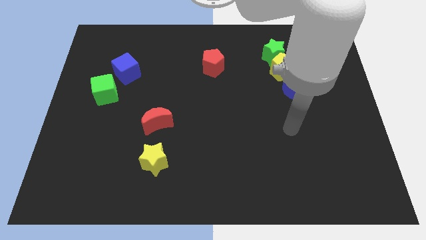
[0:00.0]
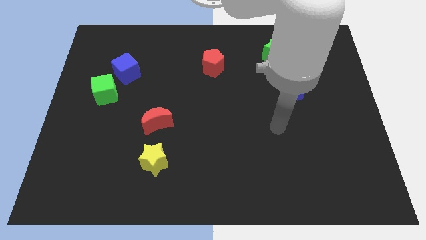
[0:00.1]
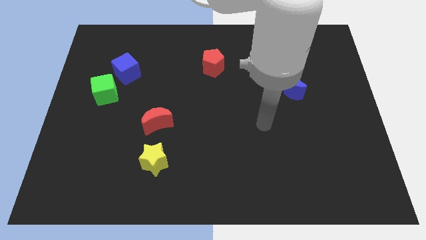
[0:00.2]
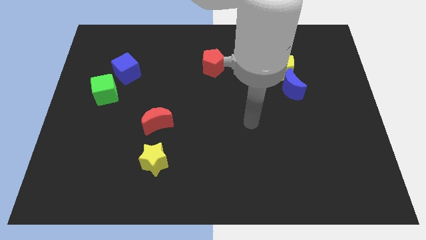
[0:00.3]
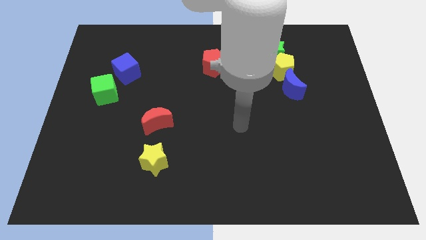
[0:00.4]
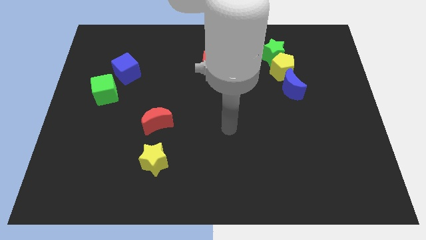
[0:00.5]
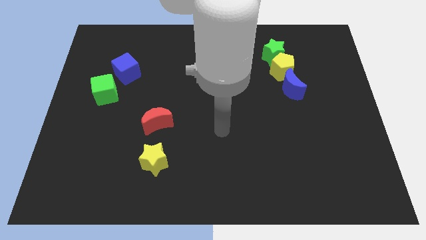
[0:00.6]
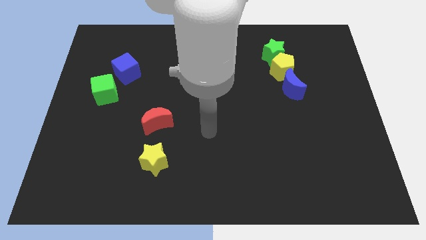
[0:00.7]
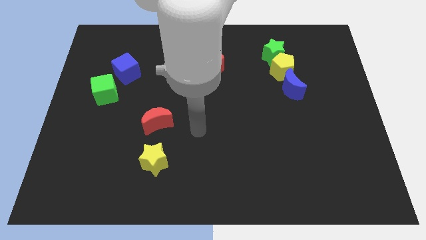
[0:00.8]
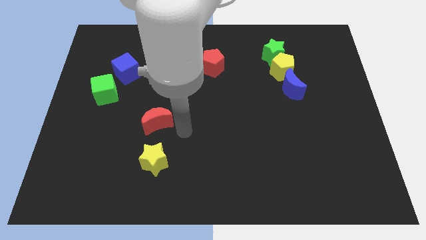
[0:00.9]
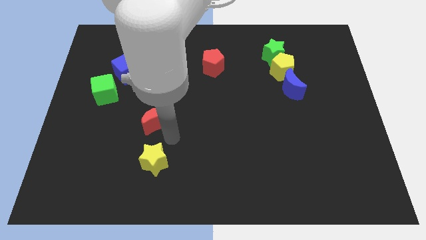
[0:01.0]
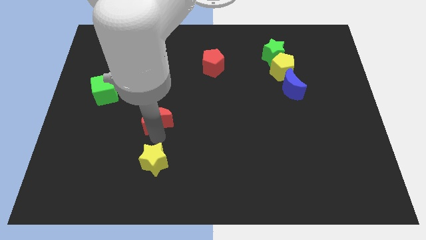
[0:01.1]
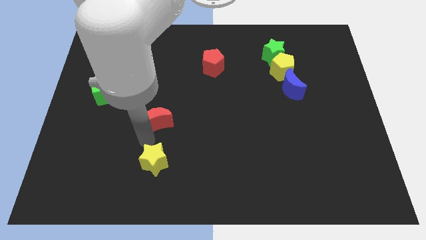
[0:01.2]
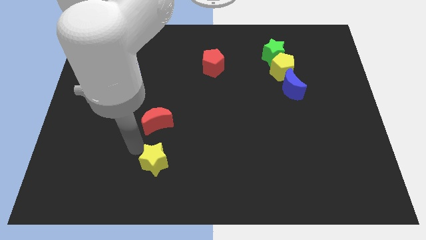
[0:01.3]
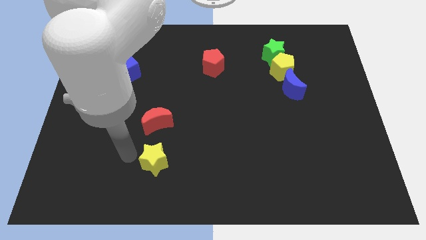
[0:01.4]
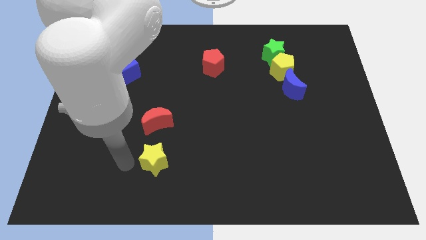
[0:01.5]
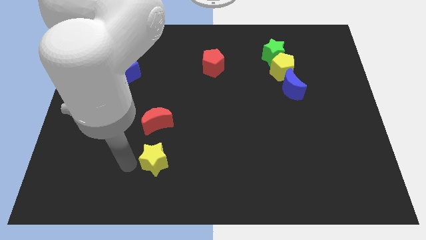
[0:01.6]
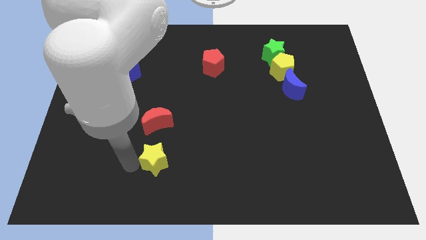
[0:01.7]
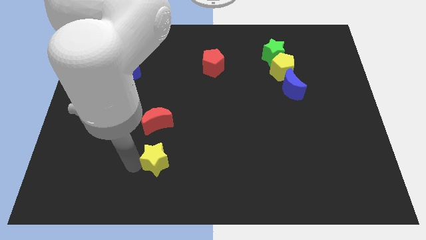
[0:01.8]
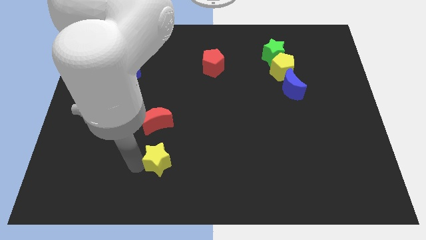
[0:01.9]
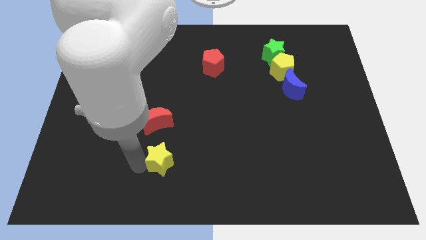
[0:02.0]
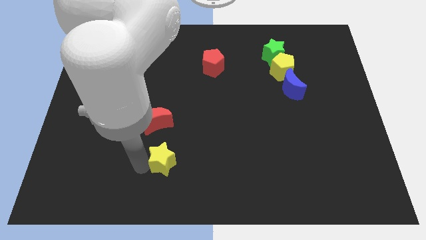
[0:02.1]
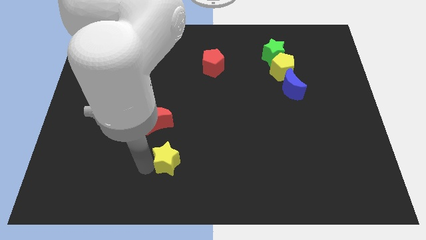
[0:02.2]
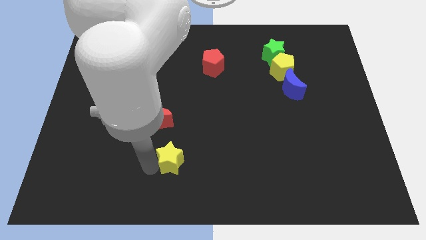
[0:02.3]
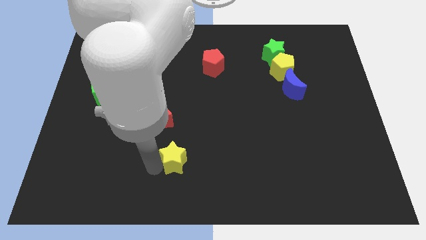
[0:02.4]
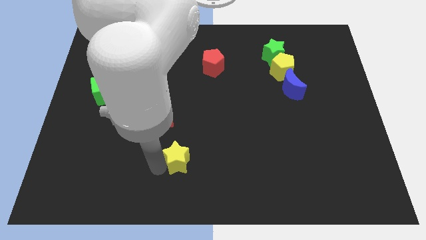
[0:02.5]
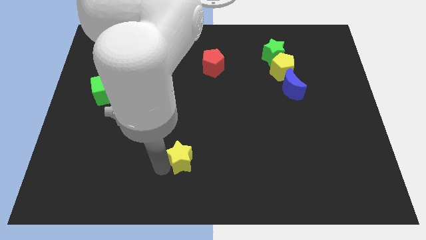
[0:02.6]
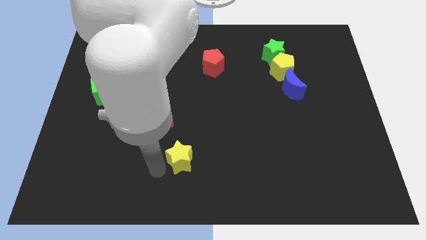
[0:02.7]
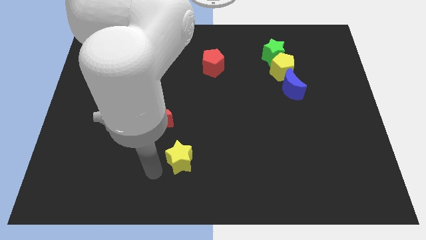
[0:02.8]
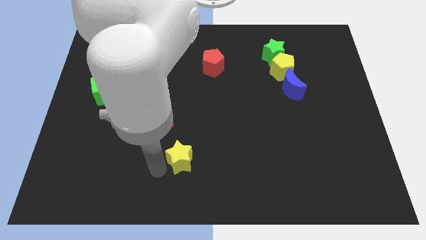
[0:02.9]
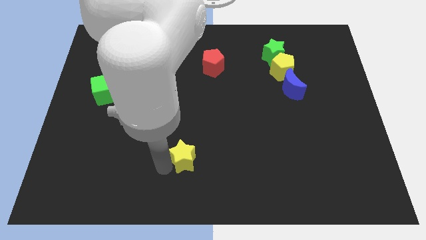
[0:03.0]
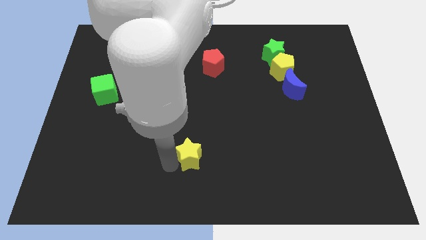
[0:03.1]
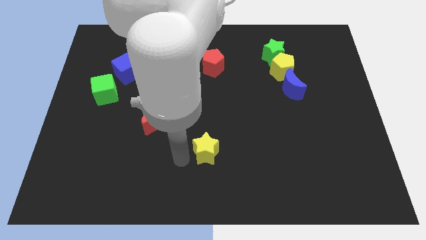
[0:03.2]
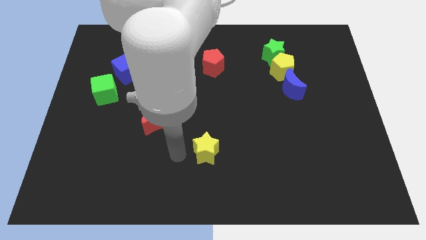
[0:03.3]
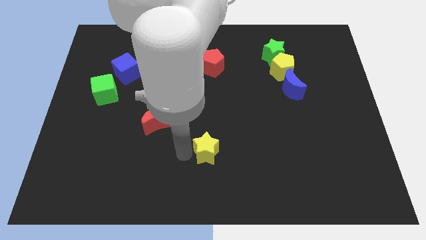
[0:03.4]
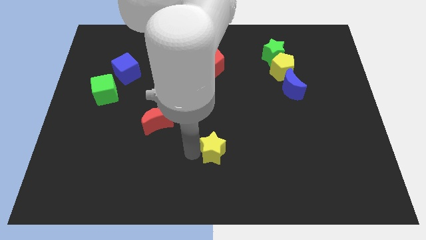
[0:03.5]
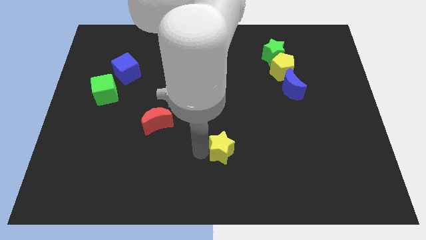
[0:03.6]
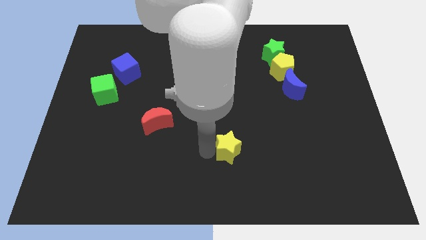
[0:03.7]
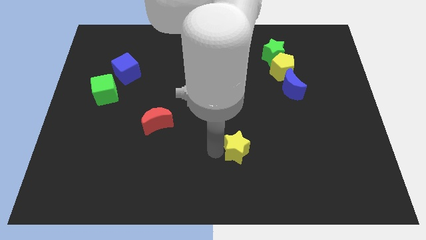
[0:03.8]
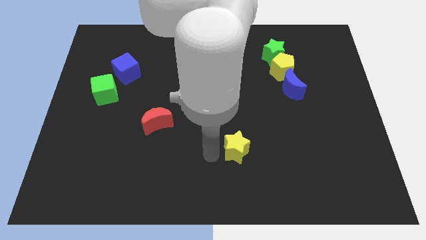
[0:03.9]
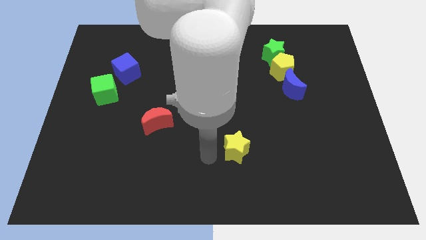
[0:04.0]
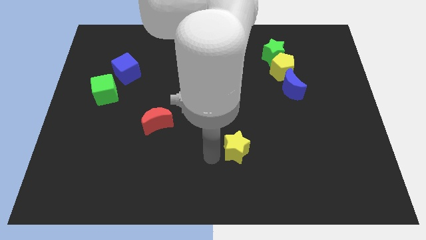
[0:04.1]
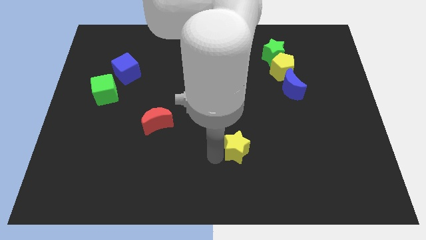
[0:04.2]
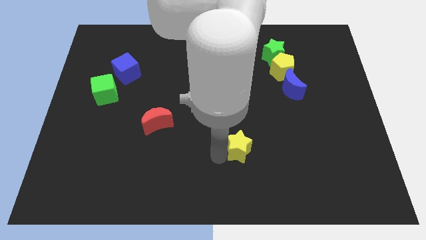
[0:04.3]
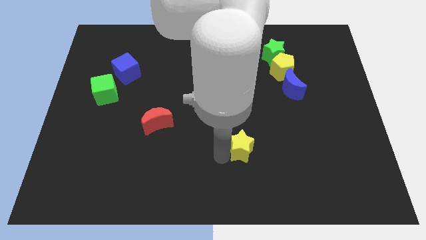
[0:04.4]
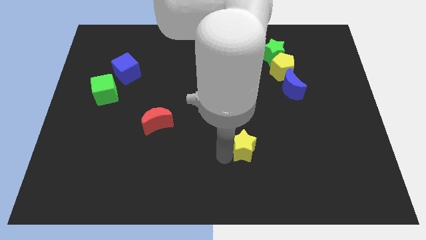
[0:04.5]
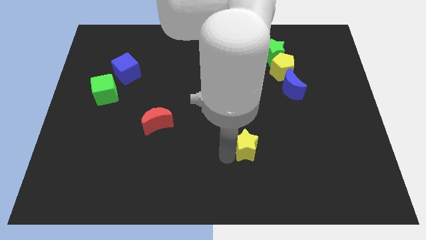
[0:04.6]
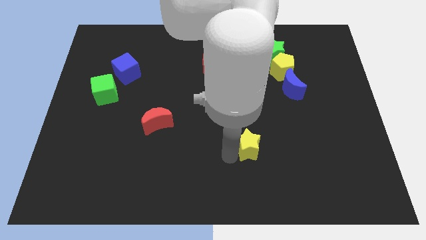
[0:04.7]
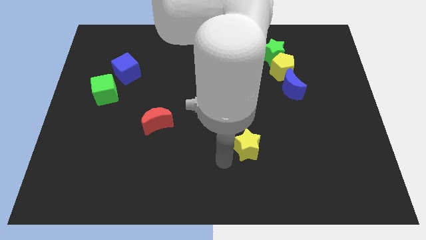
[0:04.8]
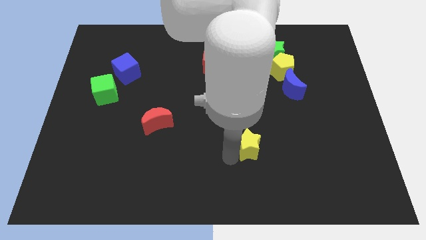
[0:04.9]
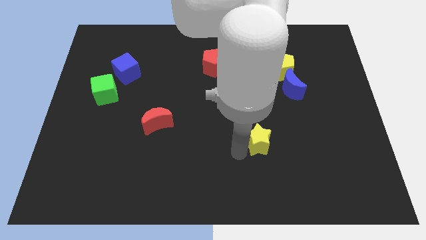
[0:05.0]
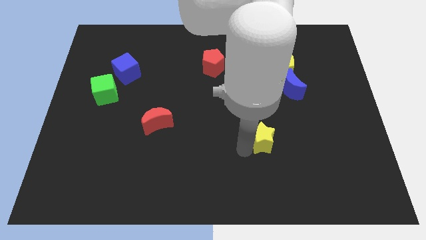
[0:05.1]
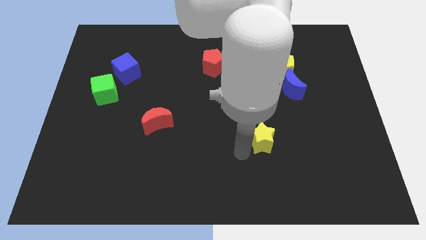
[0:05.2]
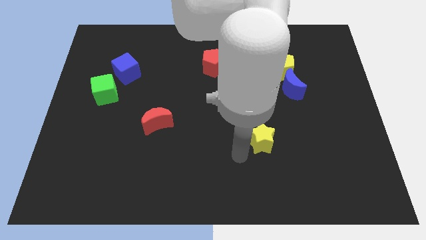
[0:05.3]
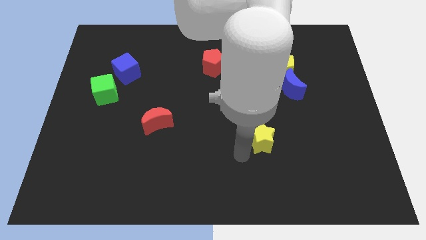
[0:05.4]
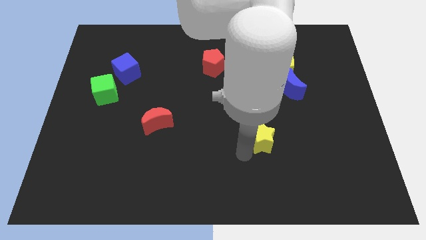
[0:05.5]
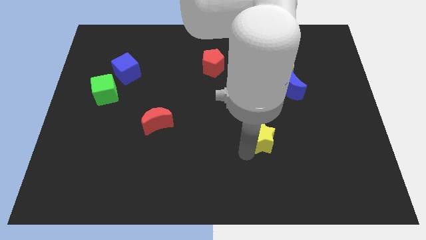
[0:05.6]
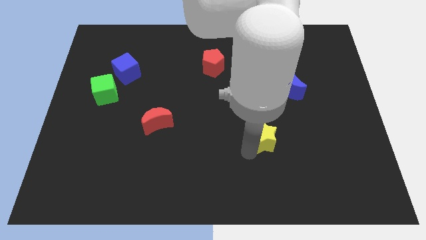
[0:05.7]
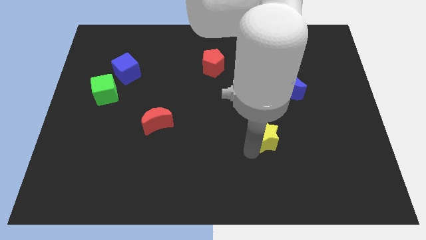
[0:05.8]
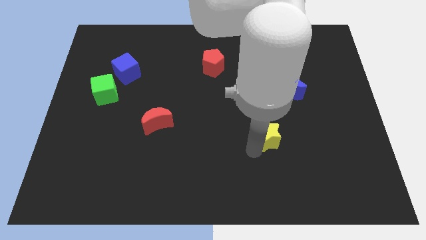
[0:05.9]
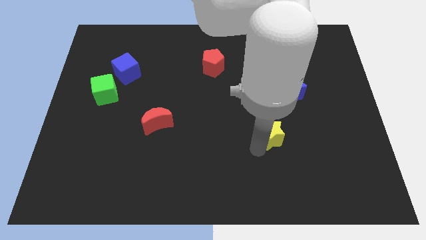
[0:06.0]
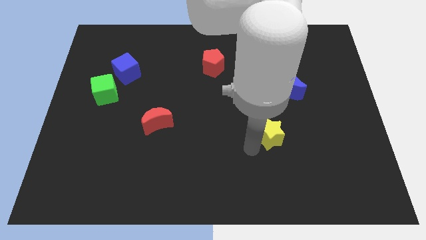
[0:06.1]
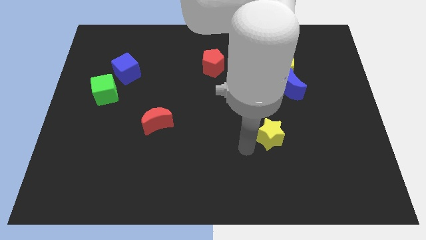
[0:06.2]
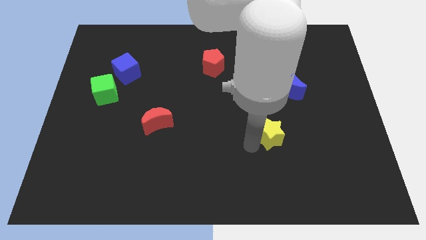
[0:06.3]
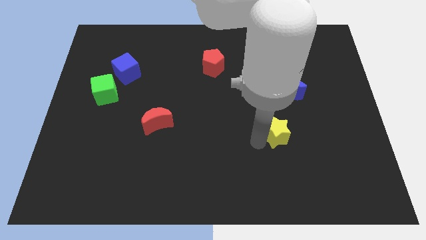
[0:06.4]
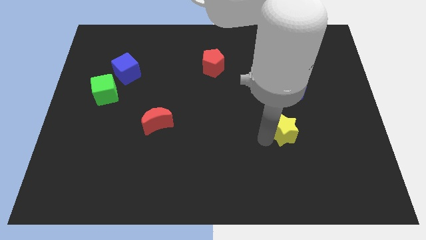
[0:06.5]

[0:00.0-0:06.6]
move the yellow star to the bottom of the blue moon

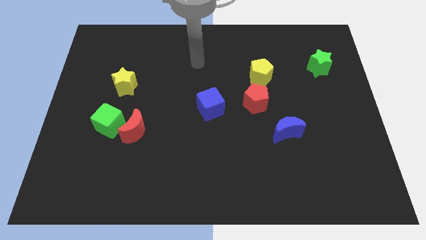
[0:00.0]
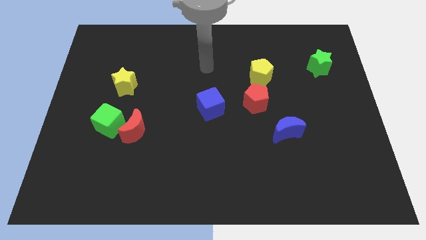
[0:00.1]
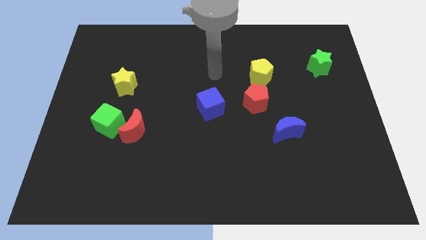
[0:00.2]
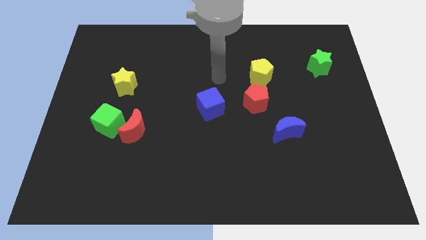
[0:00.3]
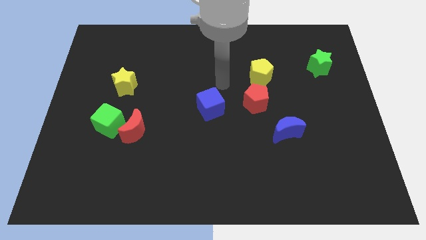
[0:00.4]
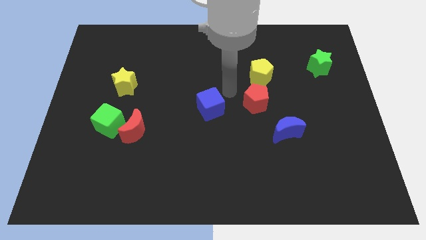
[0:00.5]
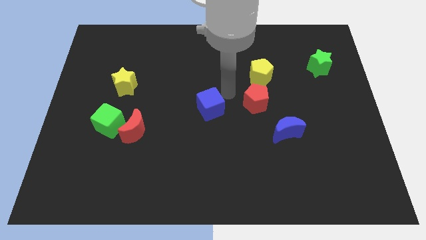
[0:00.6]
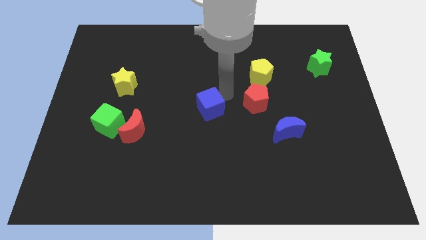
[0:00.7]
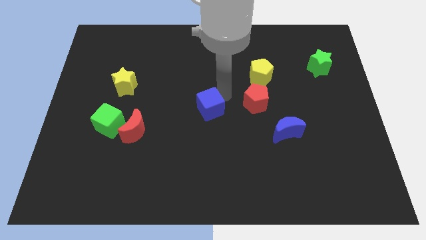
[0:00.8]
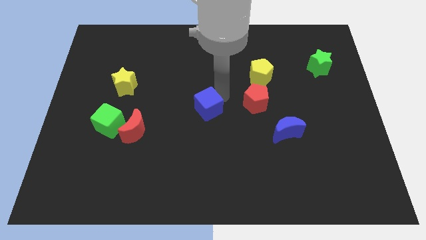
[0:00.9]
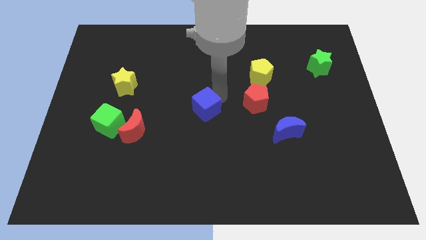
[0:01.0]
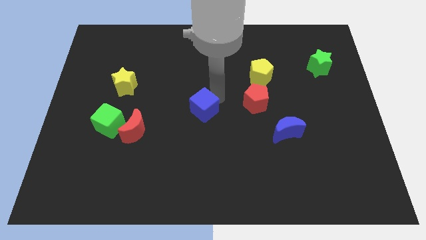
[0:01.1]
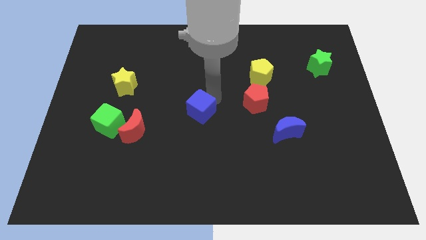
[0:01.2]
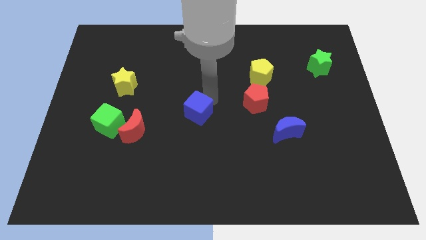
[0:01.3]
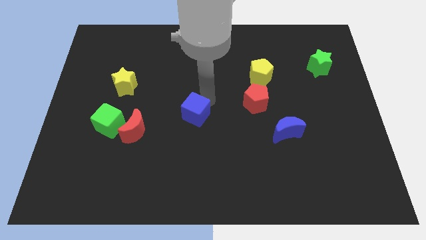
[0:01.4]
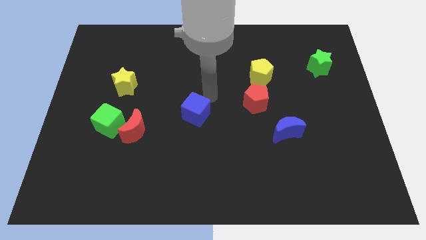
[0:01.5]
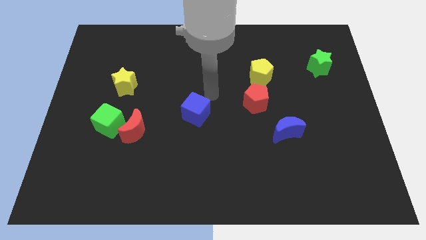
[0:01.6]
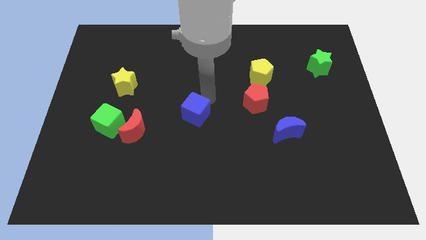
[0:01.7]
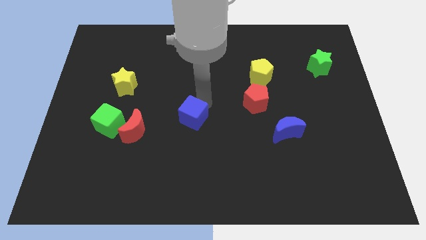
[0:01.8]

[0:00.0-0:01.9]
put the blue cube right of the red moon
